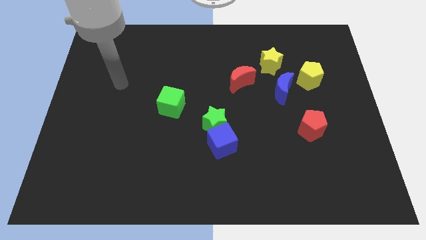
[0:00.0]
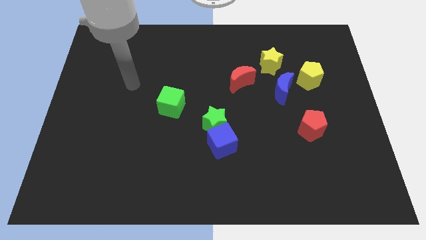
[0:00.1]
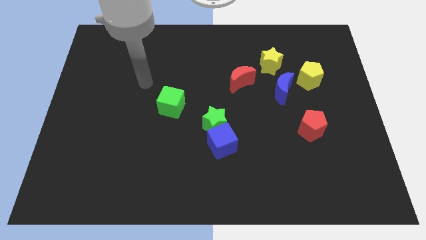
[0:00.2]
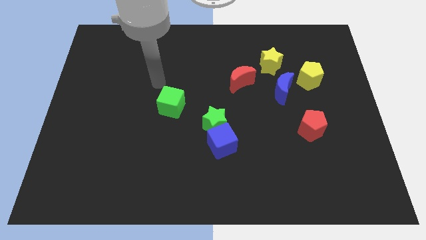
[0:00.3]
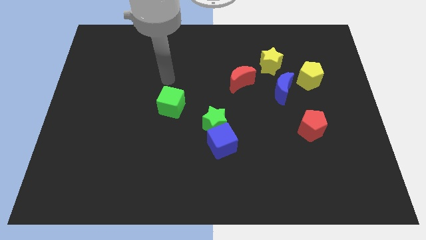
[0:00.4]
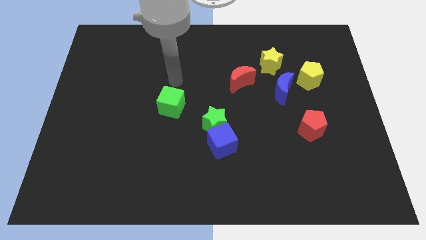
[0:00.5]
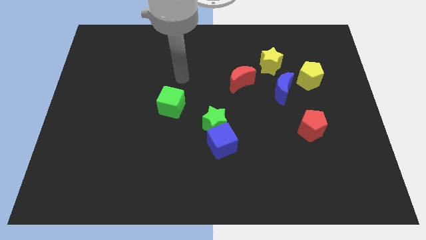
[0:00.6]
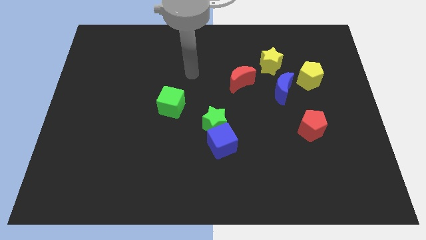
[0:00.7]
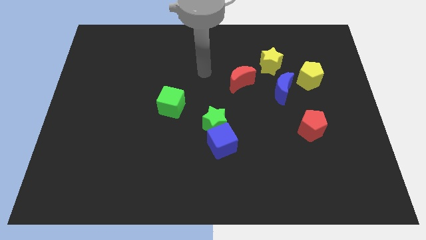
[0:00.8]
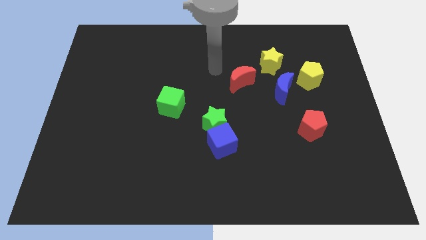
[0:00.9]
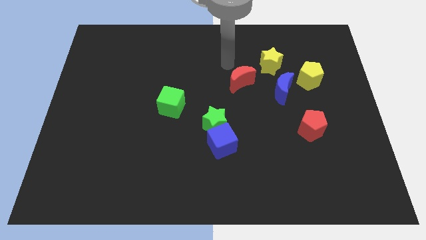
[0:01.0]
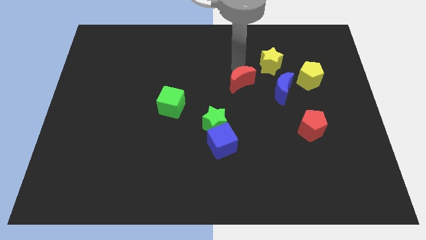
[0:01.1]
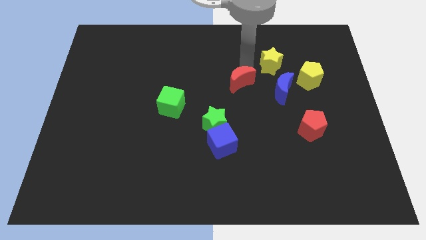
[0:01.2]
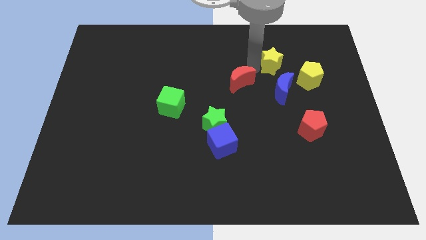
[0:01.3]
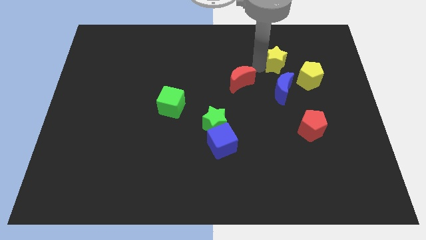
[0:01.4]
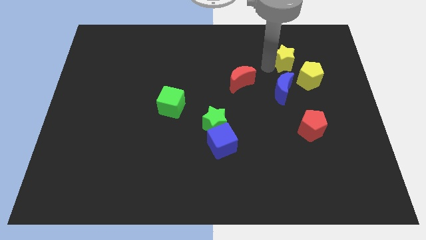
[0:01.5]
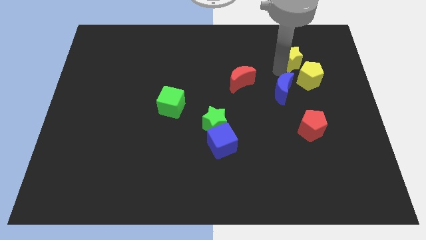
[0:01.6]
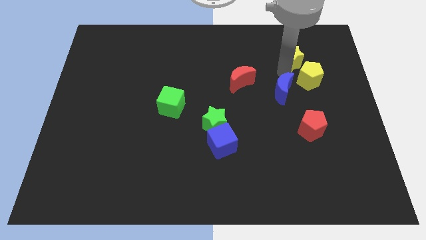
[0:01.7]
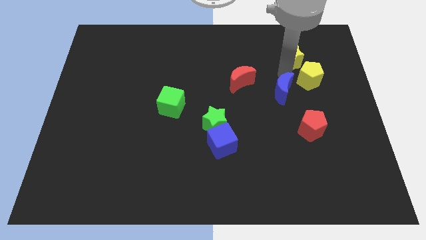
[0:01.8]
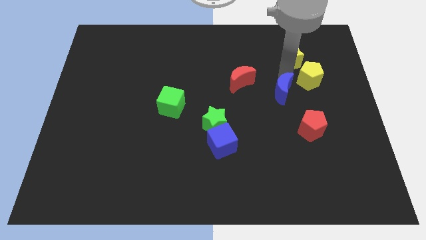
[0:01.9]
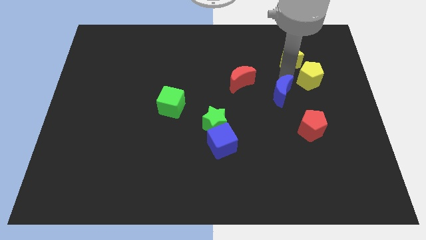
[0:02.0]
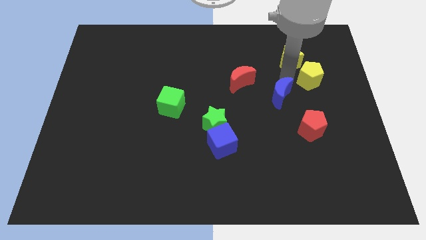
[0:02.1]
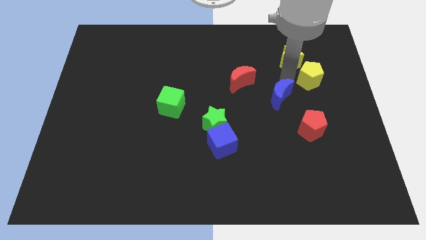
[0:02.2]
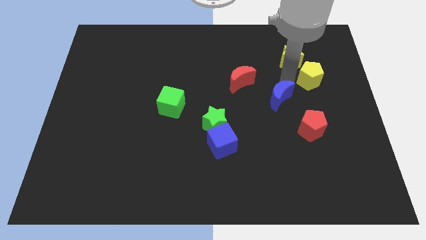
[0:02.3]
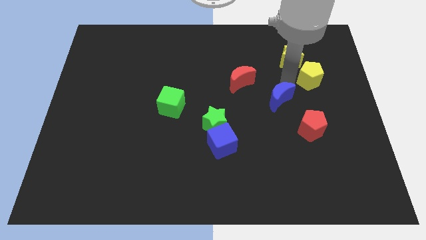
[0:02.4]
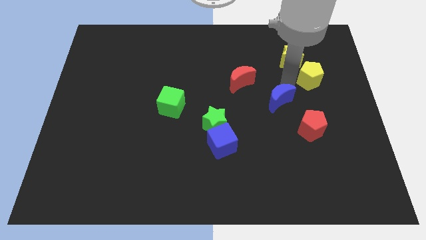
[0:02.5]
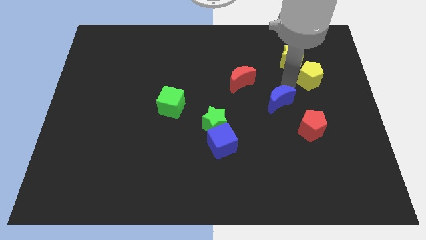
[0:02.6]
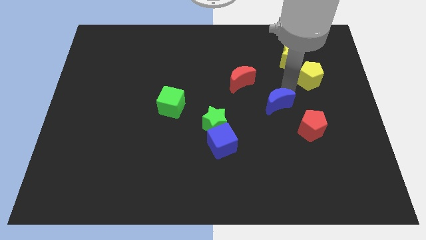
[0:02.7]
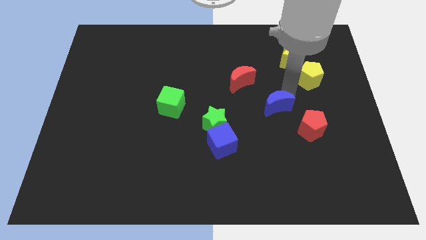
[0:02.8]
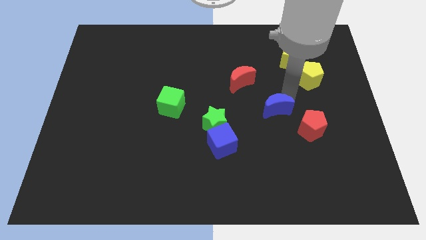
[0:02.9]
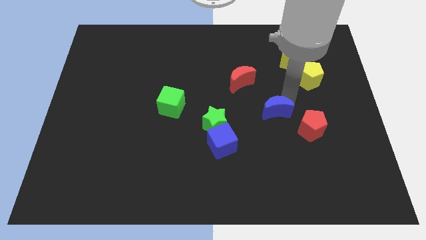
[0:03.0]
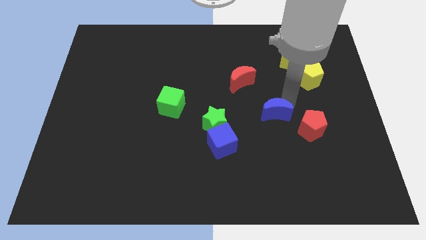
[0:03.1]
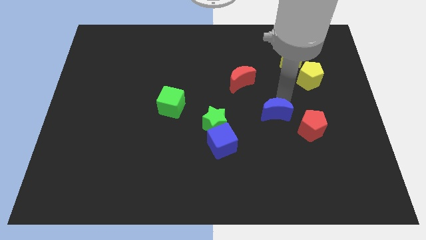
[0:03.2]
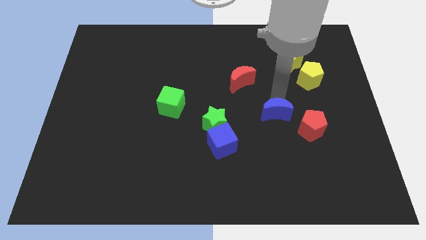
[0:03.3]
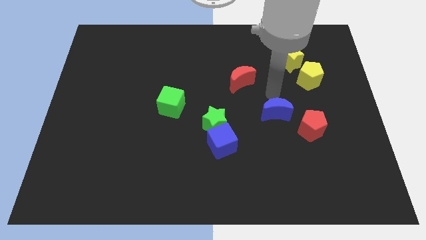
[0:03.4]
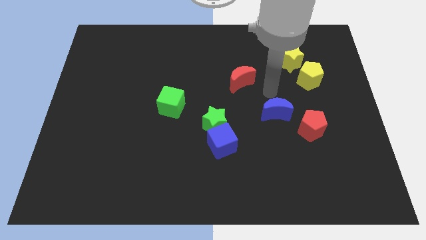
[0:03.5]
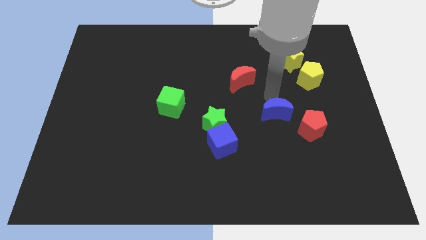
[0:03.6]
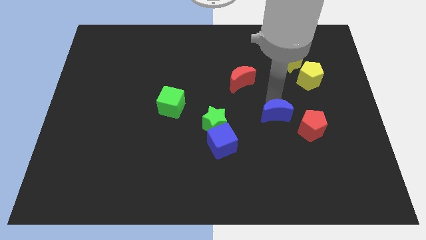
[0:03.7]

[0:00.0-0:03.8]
push the blue moon down a little bit

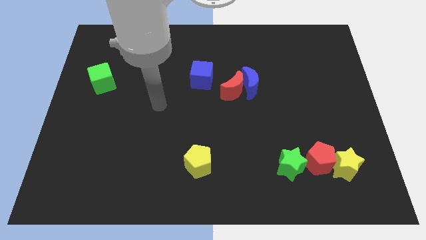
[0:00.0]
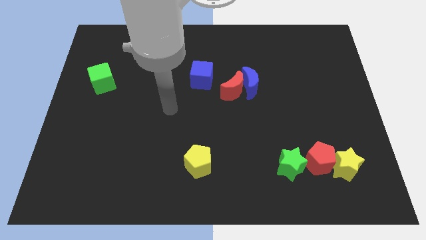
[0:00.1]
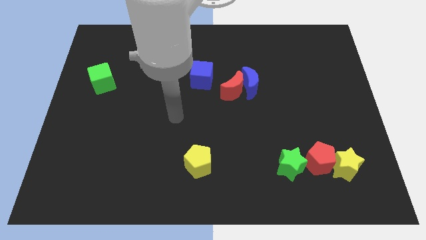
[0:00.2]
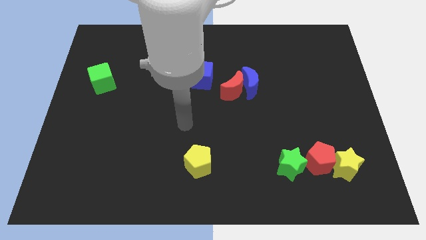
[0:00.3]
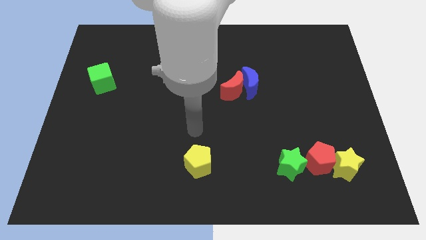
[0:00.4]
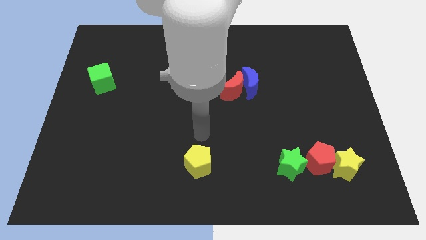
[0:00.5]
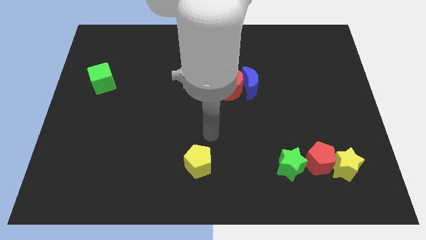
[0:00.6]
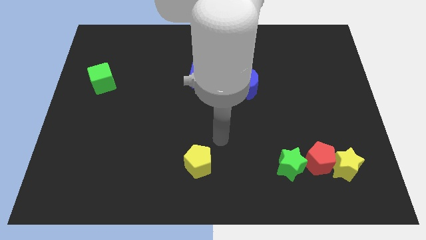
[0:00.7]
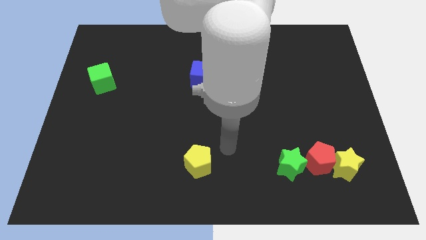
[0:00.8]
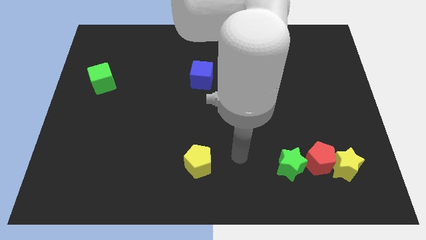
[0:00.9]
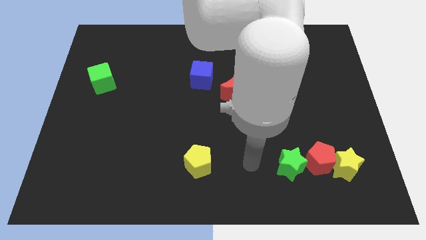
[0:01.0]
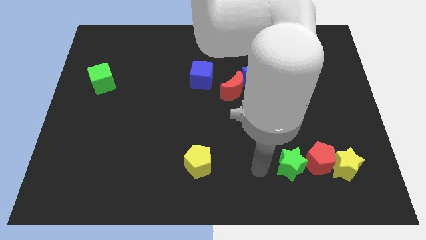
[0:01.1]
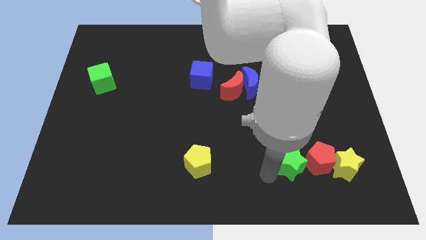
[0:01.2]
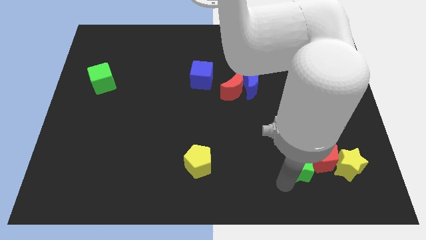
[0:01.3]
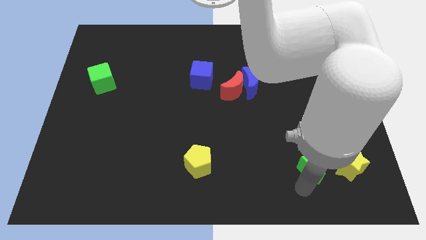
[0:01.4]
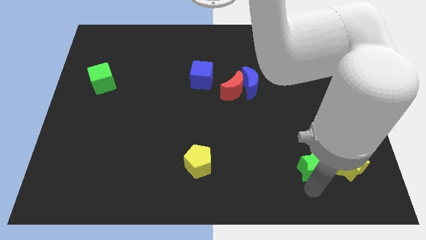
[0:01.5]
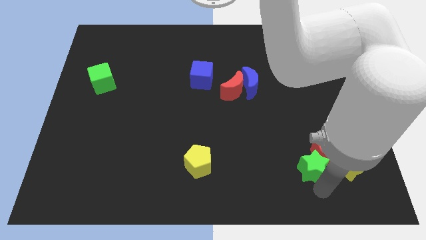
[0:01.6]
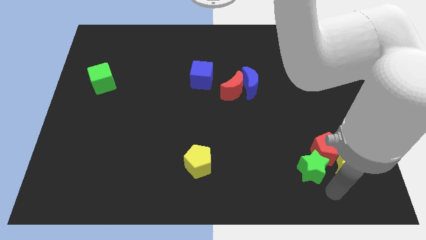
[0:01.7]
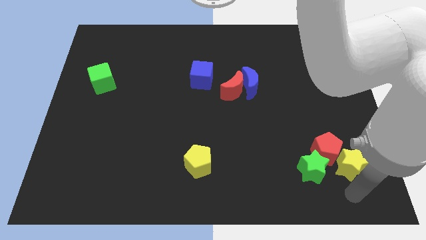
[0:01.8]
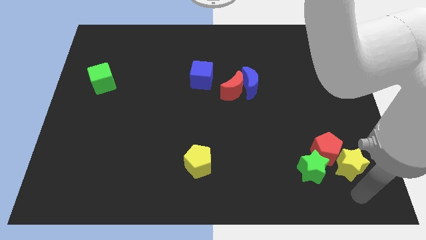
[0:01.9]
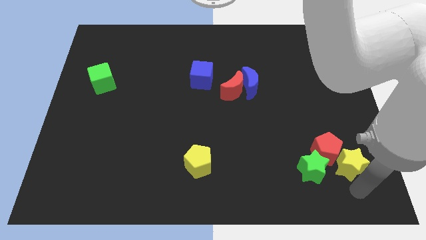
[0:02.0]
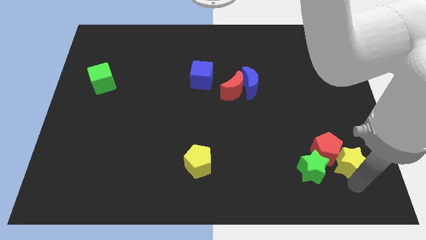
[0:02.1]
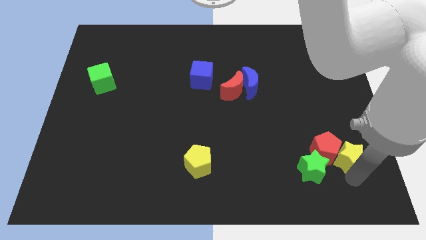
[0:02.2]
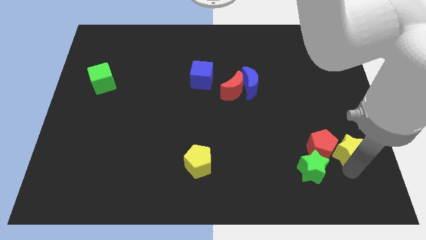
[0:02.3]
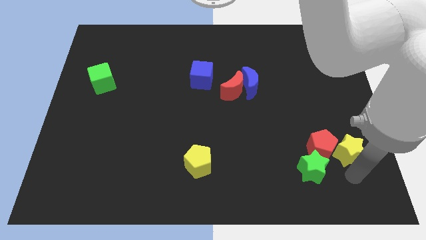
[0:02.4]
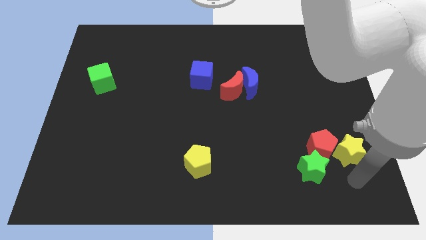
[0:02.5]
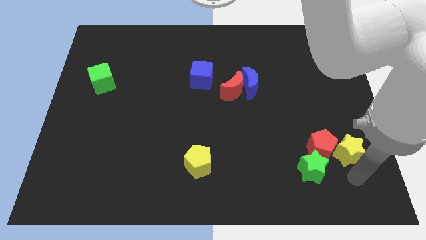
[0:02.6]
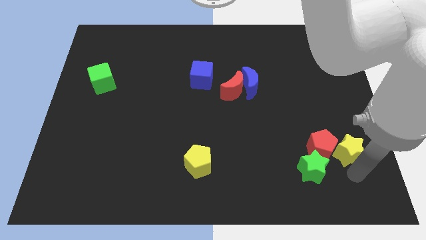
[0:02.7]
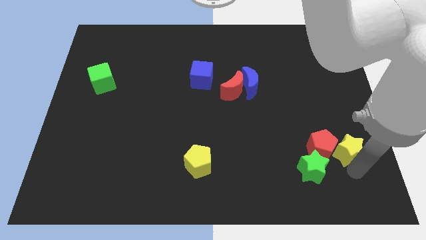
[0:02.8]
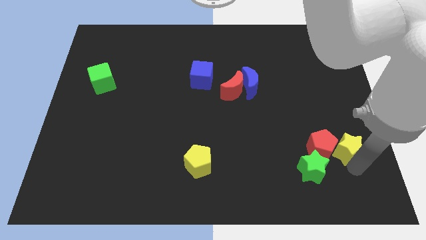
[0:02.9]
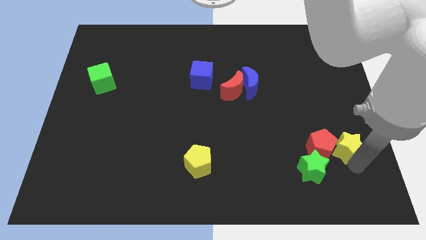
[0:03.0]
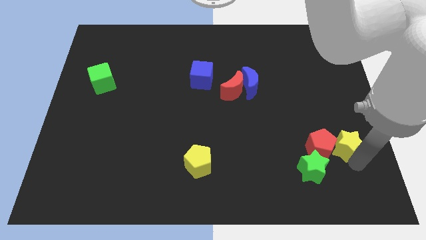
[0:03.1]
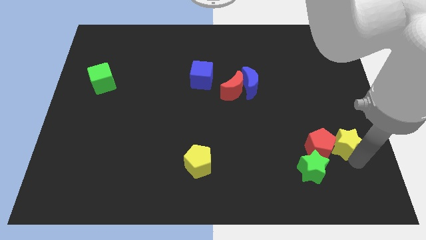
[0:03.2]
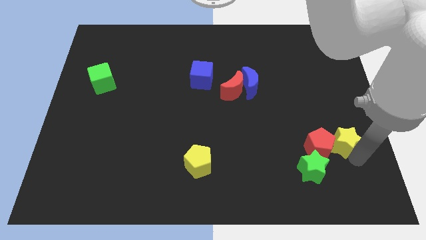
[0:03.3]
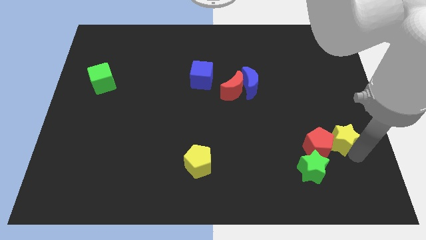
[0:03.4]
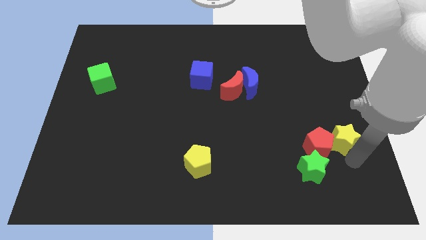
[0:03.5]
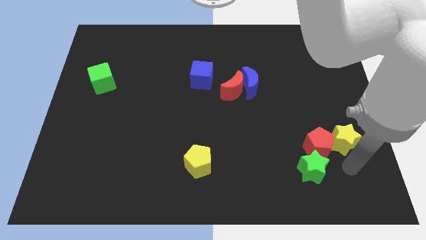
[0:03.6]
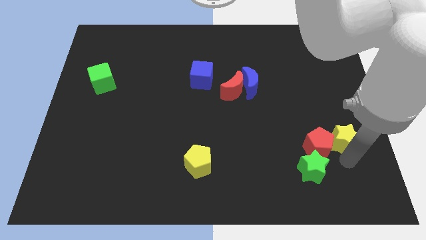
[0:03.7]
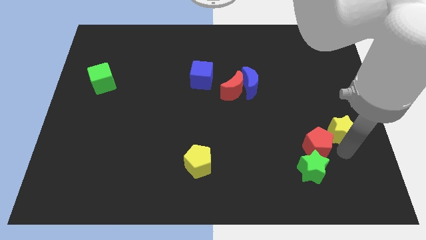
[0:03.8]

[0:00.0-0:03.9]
slightly slide the yellow star up
